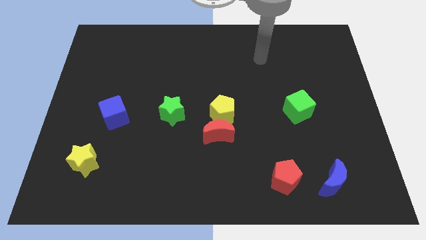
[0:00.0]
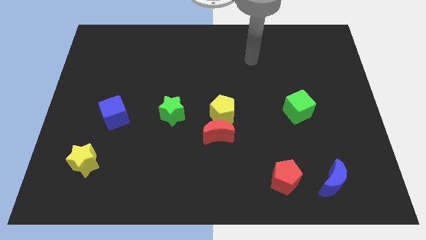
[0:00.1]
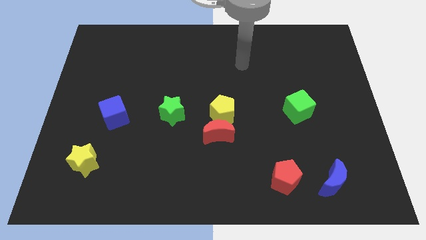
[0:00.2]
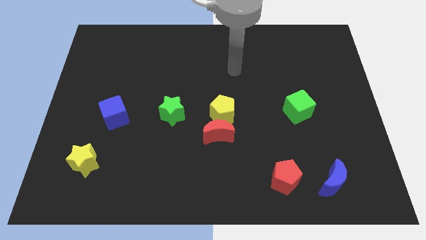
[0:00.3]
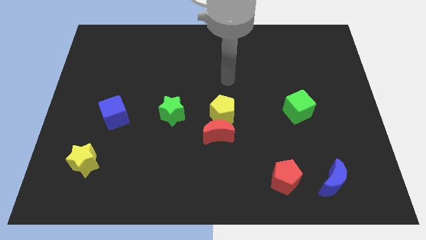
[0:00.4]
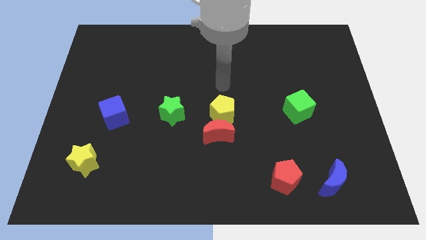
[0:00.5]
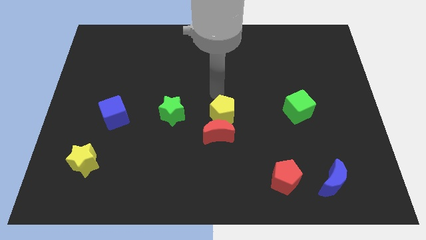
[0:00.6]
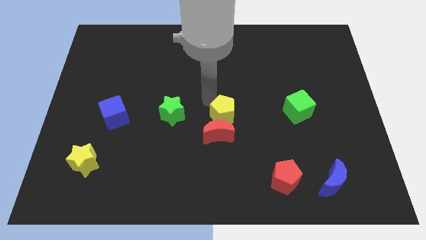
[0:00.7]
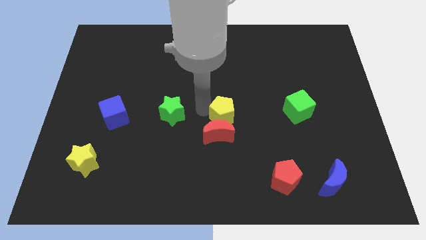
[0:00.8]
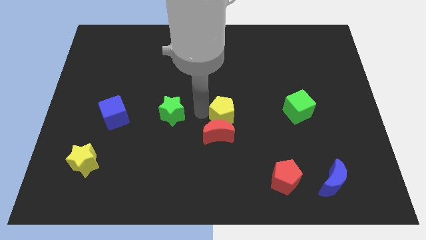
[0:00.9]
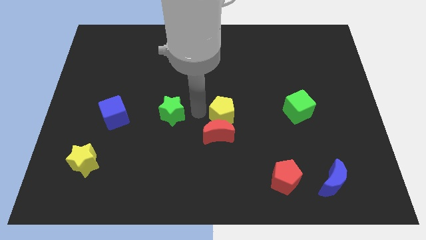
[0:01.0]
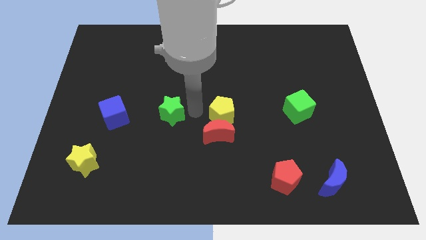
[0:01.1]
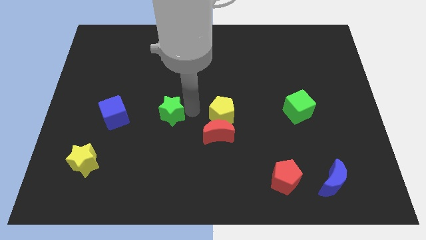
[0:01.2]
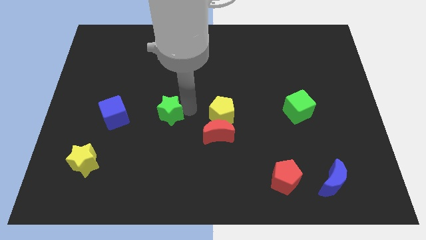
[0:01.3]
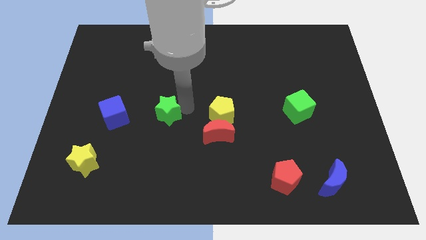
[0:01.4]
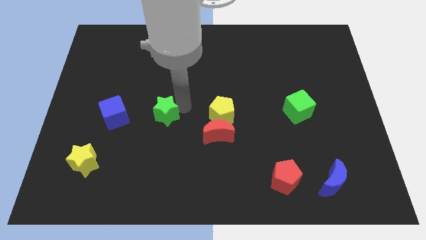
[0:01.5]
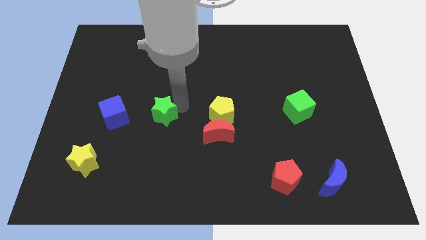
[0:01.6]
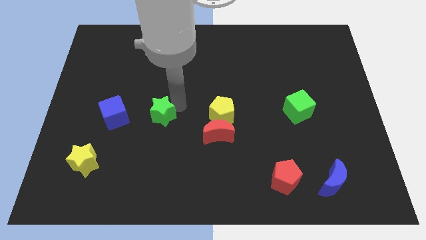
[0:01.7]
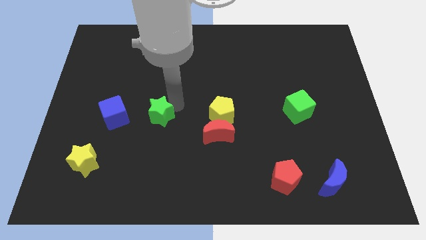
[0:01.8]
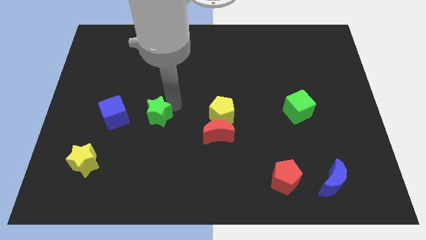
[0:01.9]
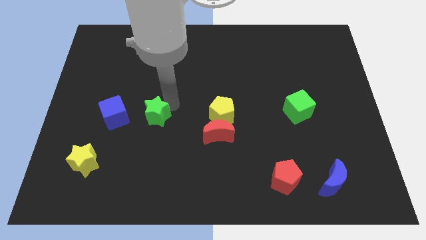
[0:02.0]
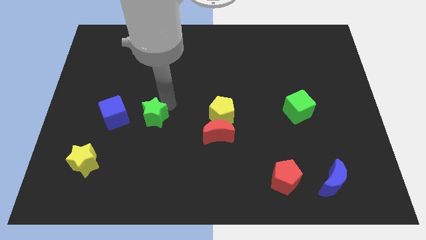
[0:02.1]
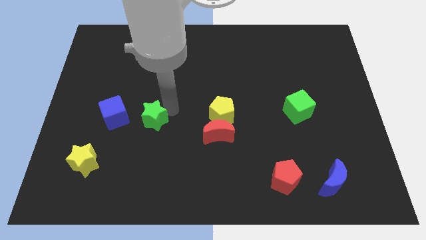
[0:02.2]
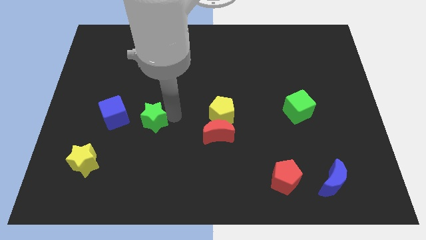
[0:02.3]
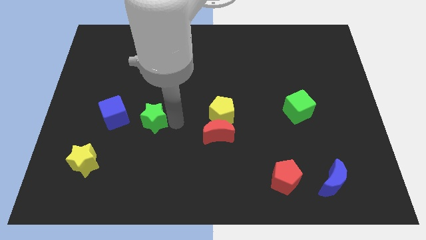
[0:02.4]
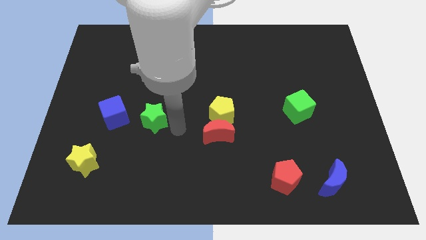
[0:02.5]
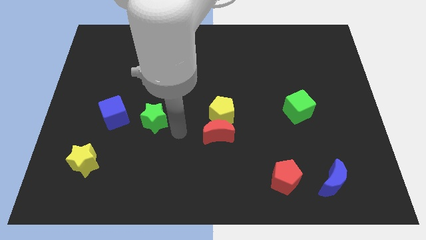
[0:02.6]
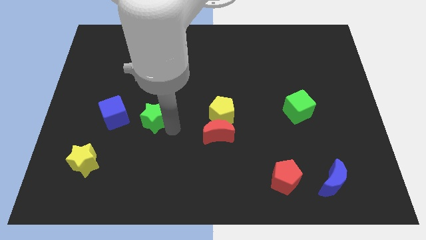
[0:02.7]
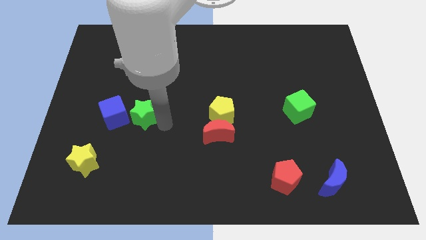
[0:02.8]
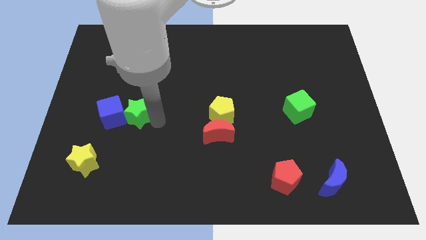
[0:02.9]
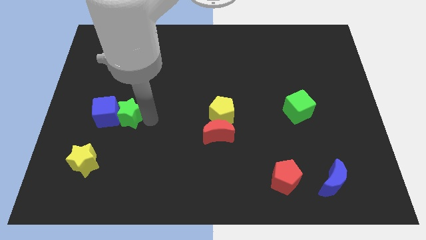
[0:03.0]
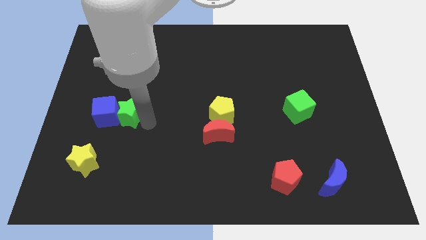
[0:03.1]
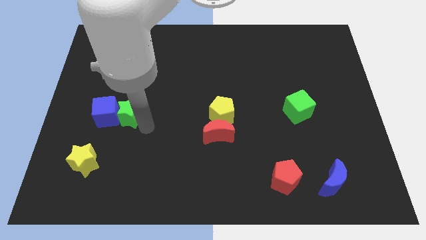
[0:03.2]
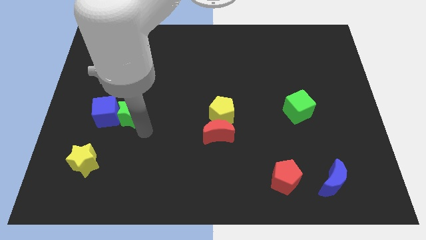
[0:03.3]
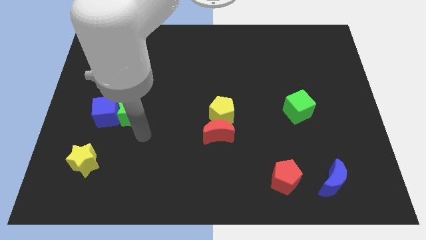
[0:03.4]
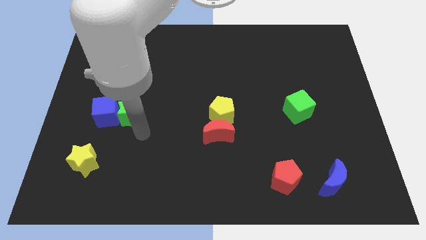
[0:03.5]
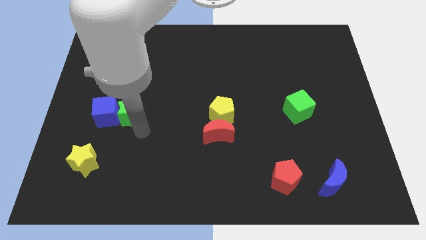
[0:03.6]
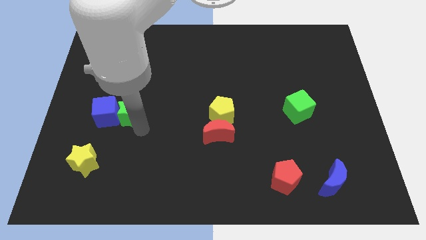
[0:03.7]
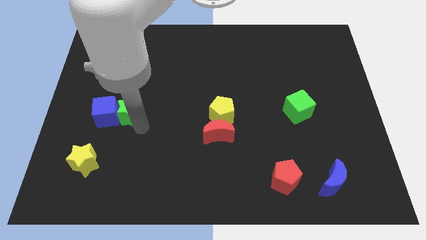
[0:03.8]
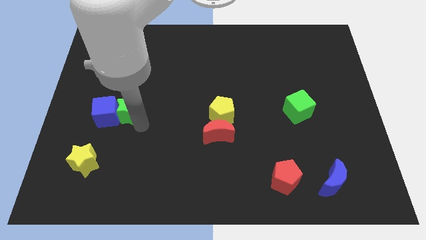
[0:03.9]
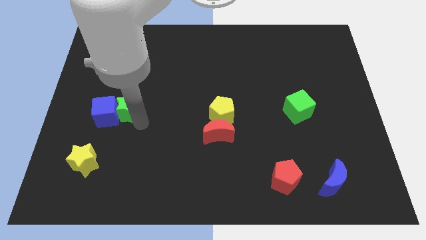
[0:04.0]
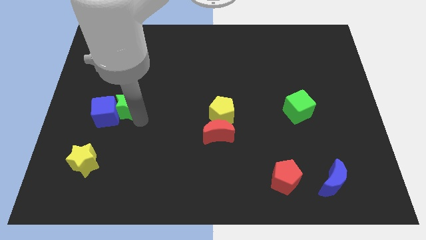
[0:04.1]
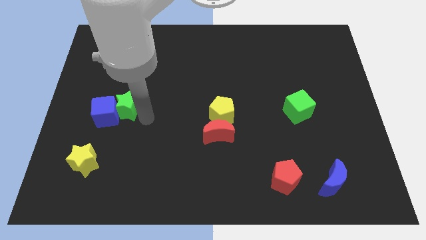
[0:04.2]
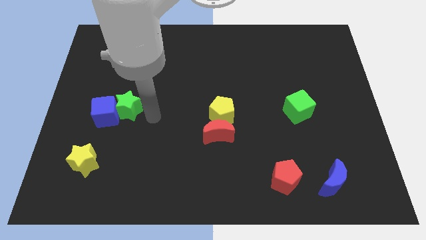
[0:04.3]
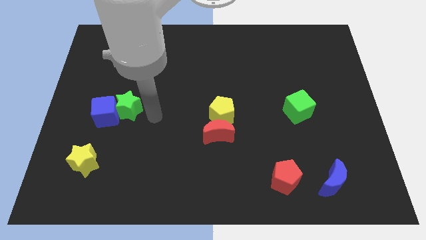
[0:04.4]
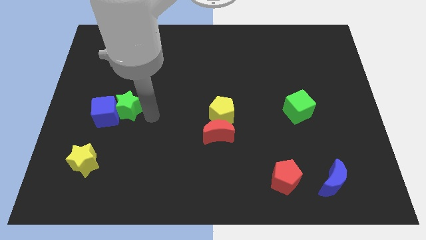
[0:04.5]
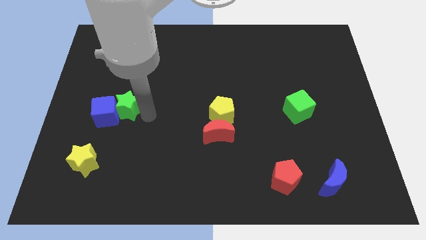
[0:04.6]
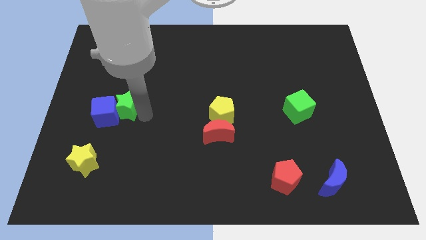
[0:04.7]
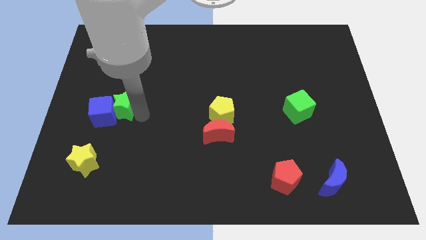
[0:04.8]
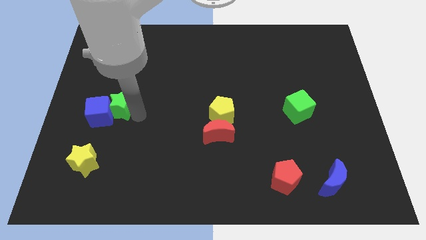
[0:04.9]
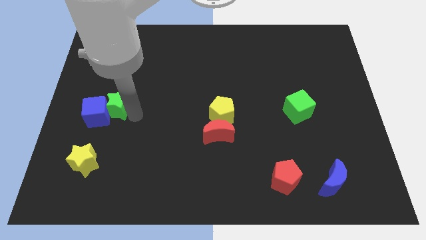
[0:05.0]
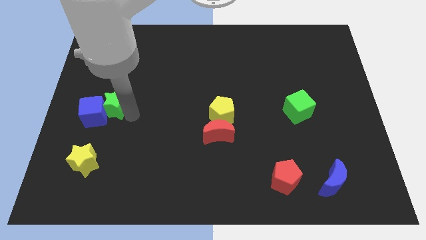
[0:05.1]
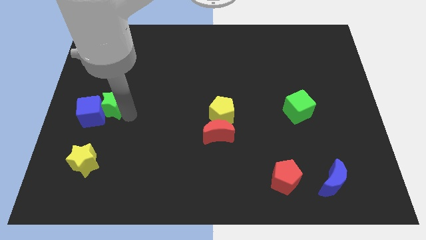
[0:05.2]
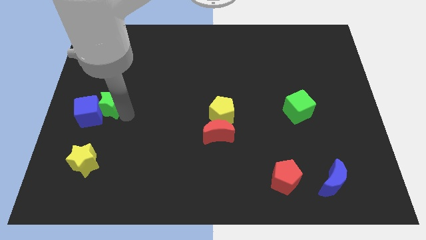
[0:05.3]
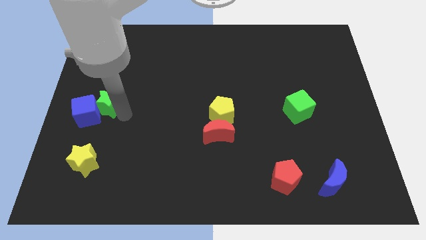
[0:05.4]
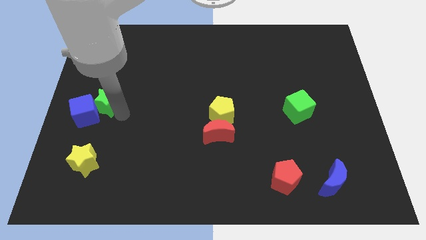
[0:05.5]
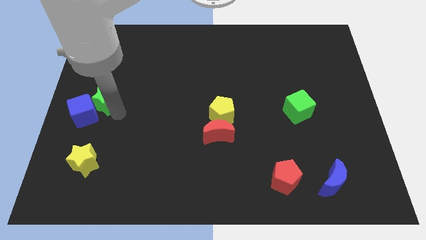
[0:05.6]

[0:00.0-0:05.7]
slide the green star to the center left

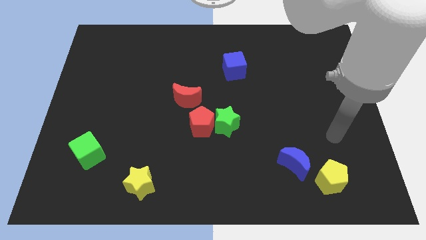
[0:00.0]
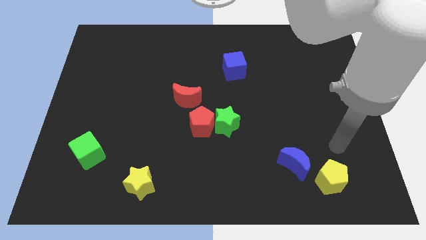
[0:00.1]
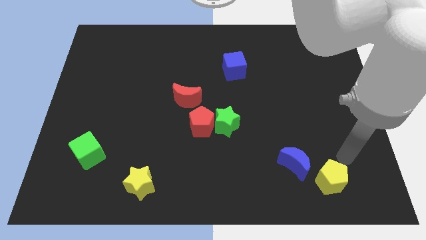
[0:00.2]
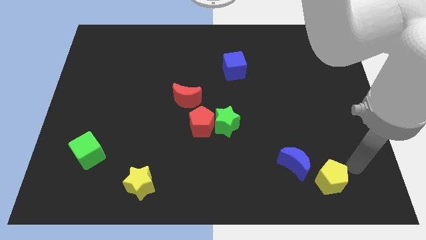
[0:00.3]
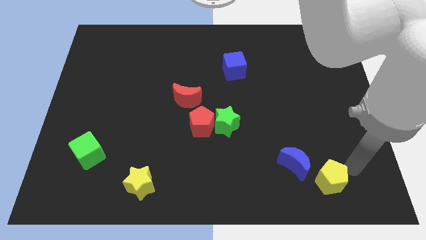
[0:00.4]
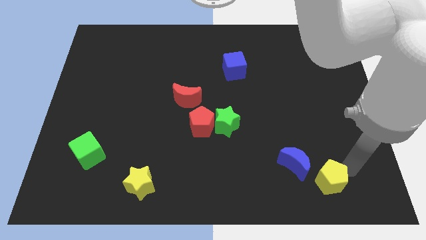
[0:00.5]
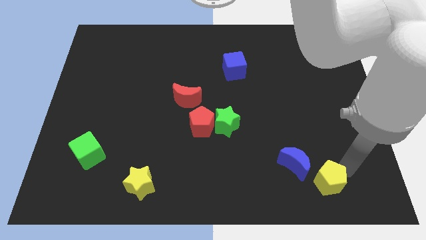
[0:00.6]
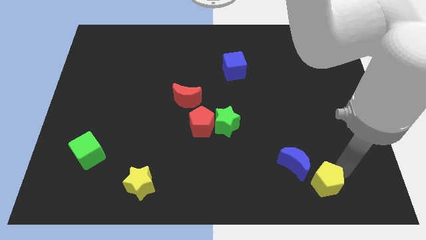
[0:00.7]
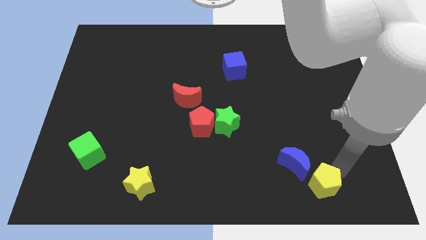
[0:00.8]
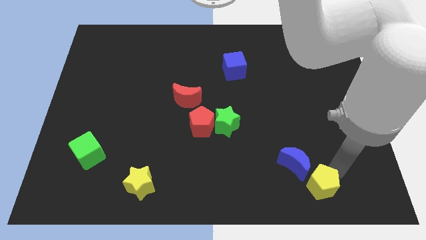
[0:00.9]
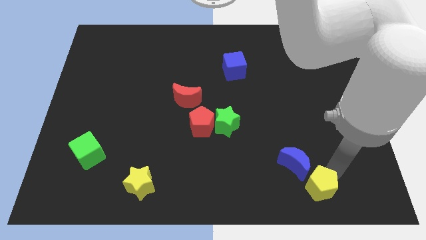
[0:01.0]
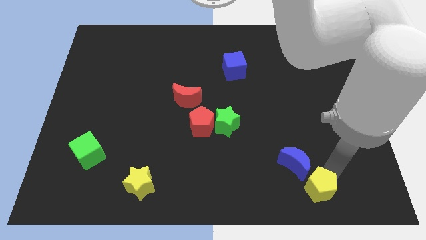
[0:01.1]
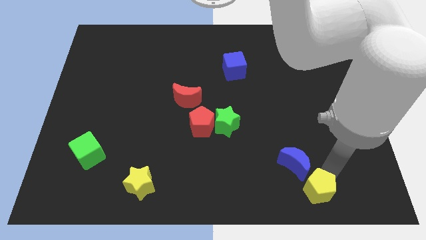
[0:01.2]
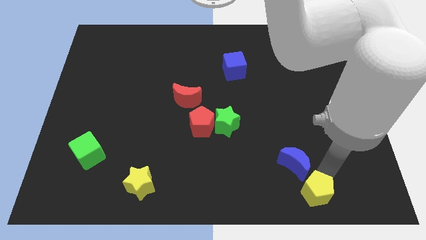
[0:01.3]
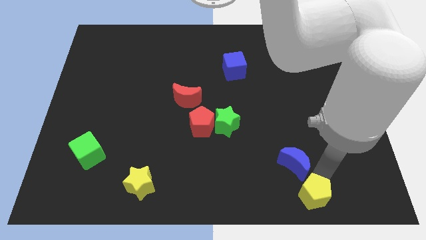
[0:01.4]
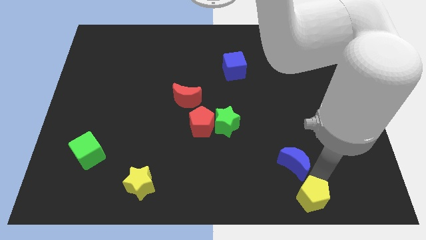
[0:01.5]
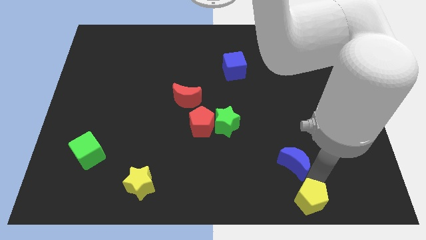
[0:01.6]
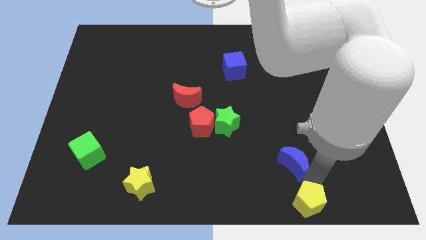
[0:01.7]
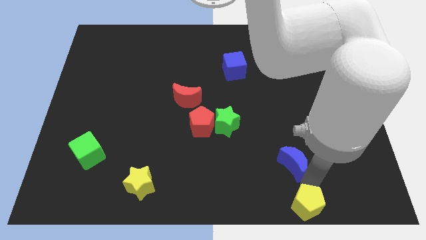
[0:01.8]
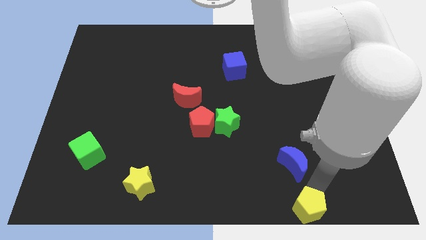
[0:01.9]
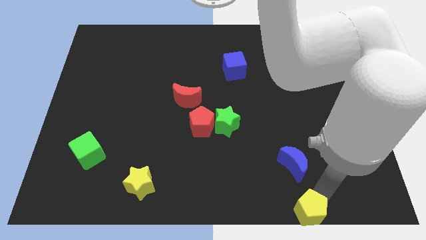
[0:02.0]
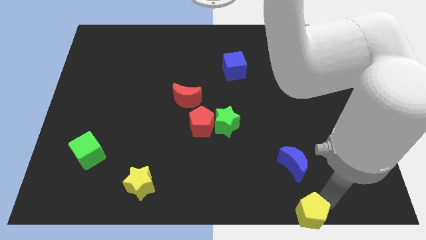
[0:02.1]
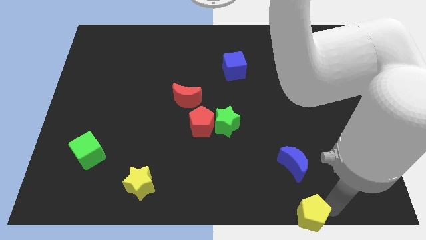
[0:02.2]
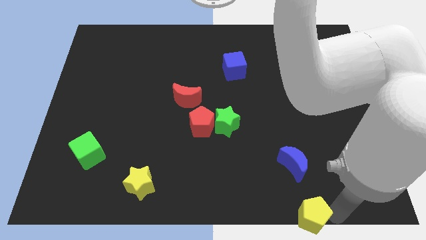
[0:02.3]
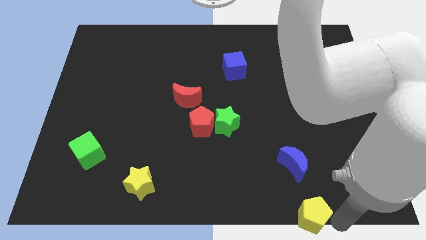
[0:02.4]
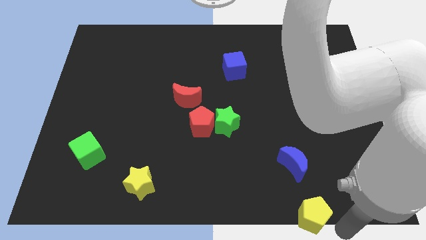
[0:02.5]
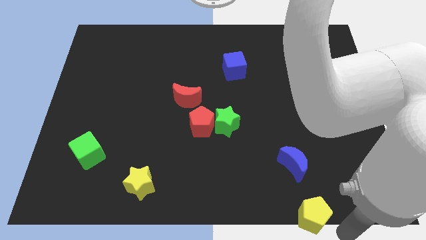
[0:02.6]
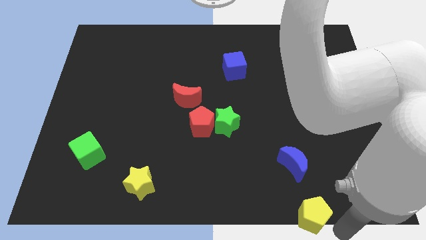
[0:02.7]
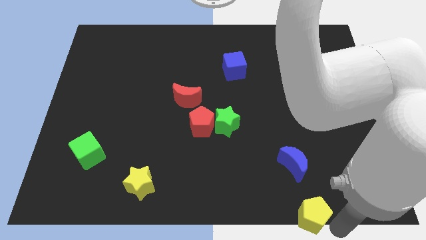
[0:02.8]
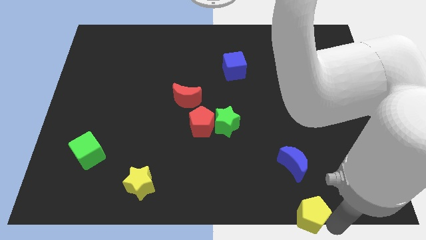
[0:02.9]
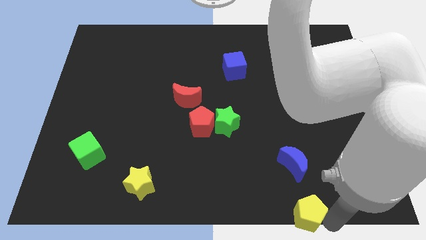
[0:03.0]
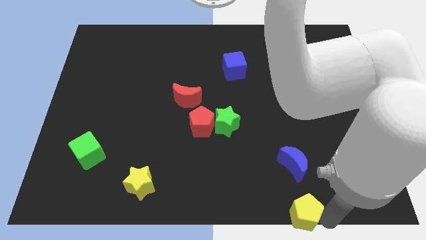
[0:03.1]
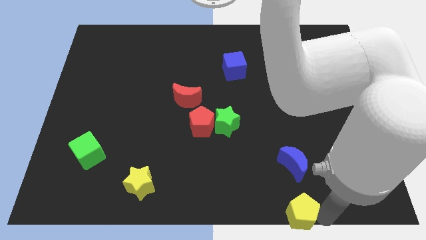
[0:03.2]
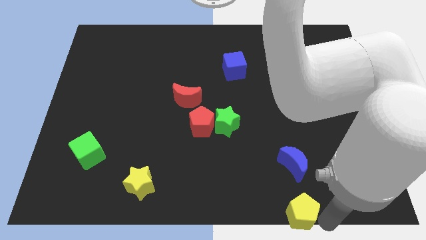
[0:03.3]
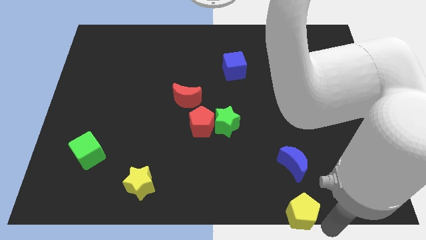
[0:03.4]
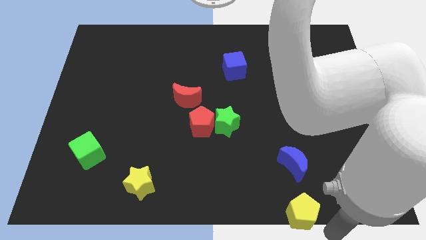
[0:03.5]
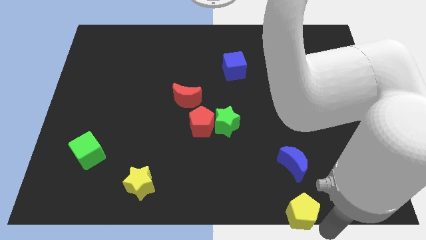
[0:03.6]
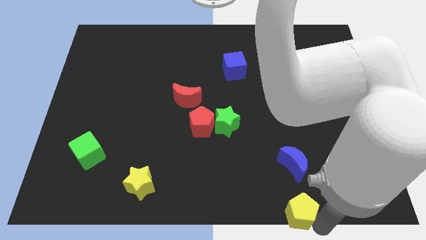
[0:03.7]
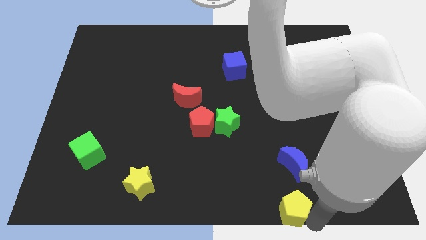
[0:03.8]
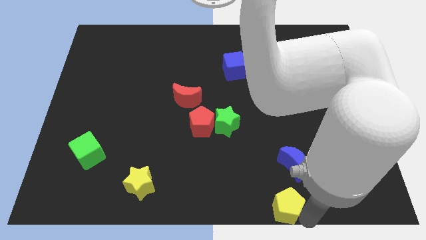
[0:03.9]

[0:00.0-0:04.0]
push the yellow pentagon to the bottom side
